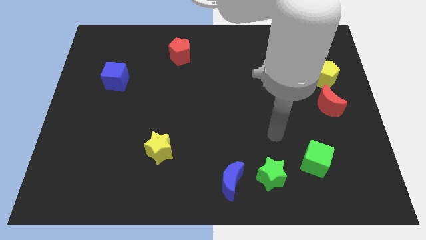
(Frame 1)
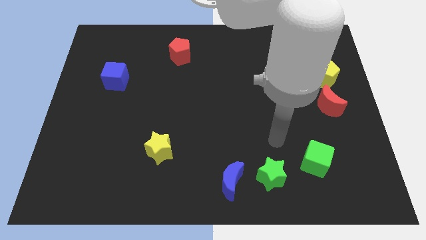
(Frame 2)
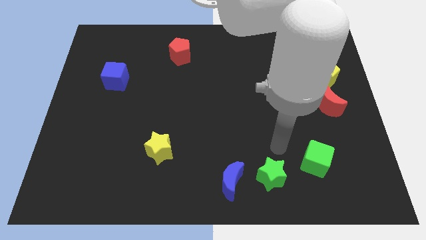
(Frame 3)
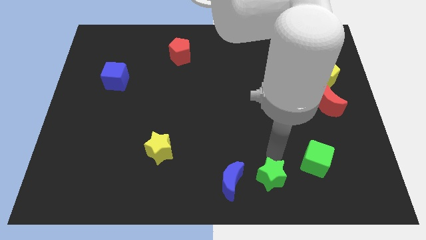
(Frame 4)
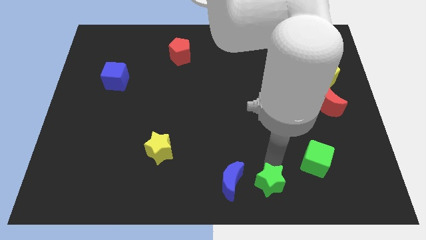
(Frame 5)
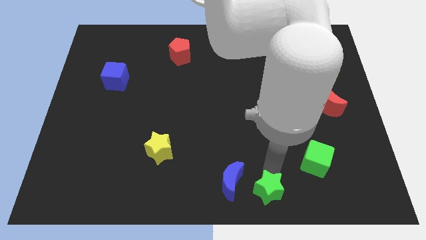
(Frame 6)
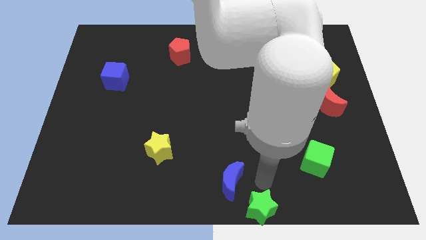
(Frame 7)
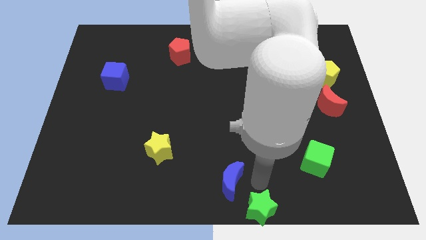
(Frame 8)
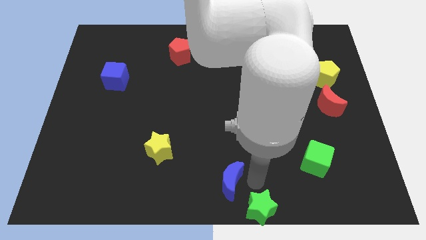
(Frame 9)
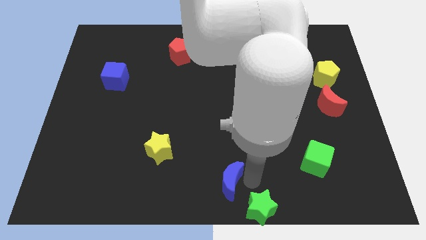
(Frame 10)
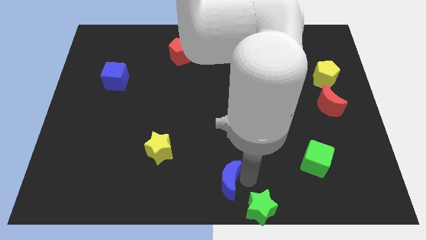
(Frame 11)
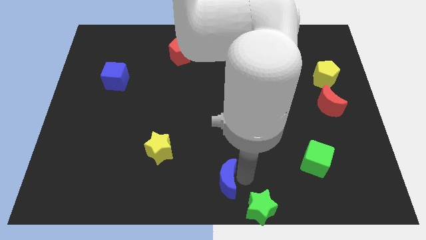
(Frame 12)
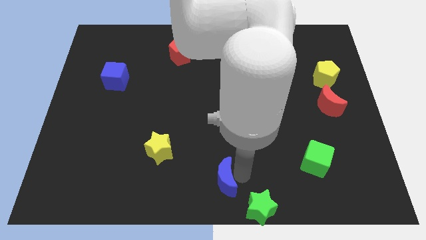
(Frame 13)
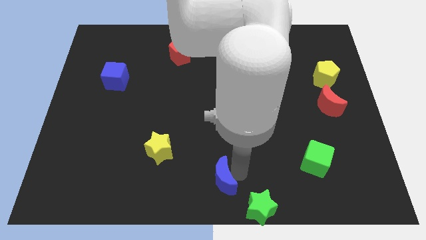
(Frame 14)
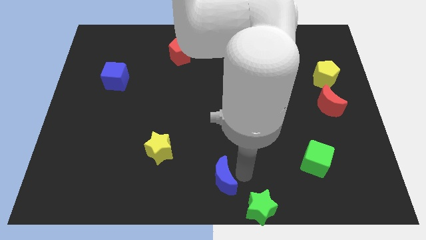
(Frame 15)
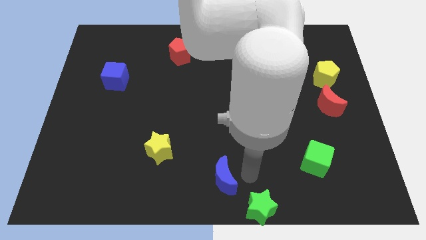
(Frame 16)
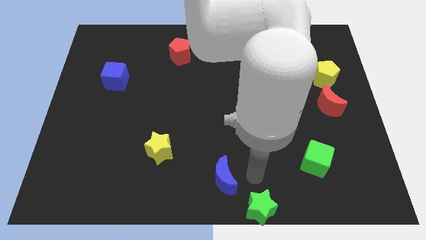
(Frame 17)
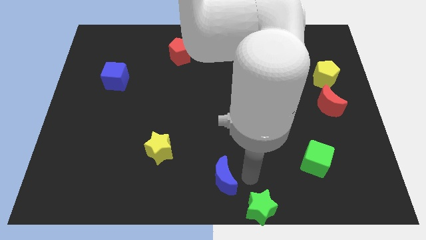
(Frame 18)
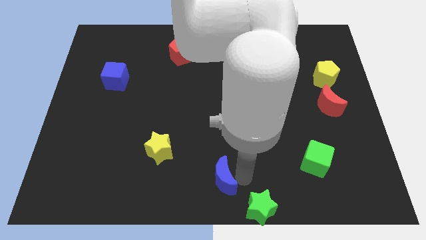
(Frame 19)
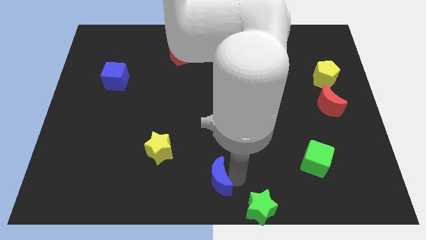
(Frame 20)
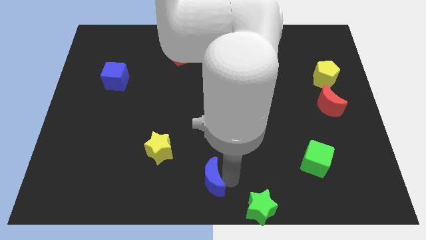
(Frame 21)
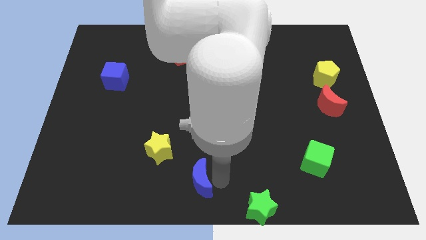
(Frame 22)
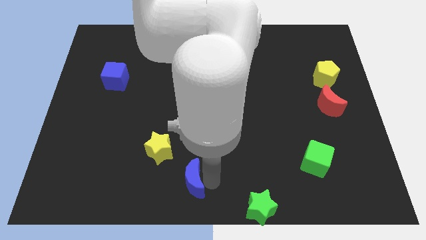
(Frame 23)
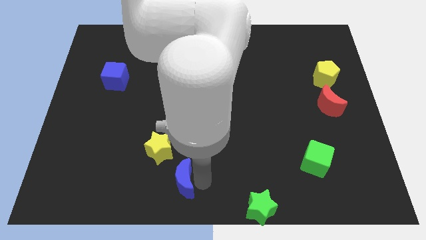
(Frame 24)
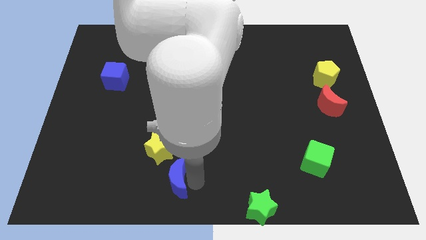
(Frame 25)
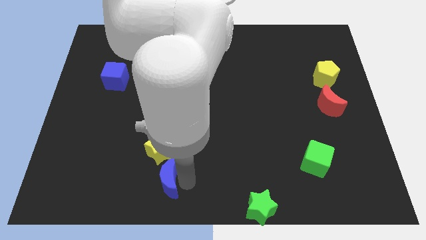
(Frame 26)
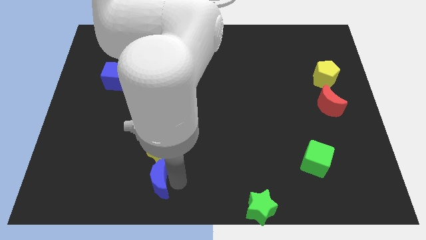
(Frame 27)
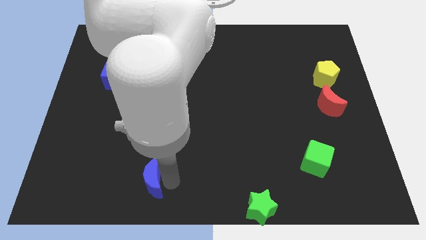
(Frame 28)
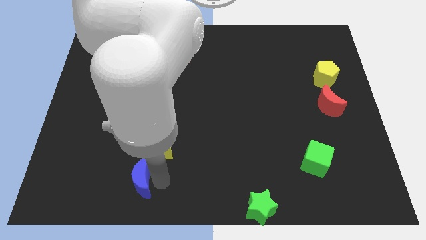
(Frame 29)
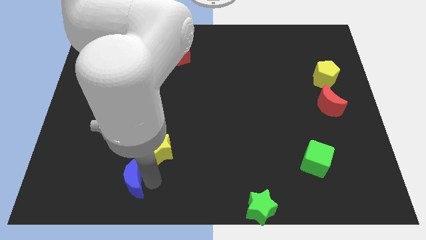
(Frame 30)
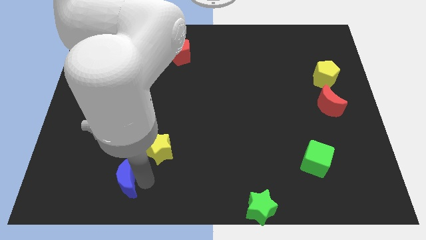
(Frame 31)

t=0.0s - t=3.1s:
move the blue moon left

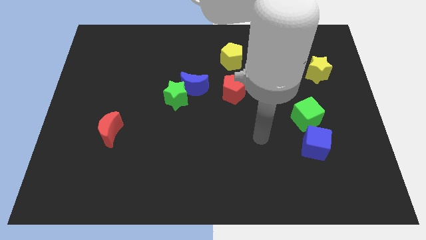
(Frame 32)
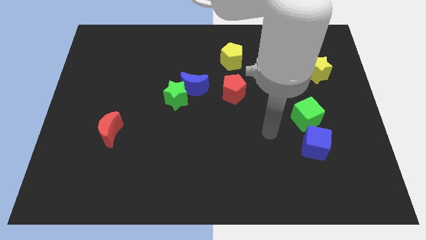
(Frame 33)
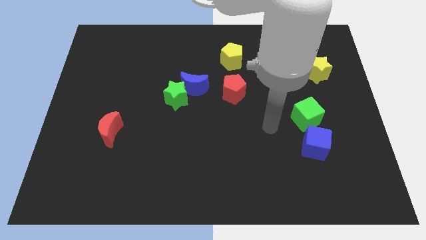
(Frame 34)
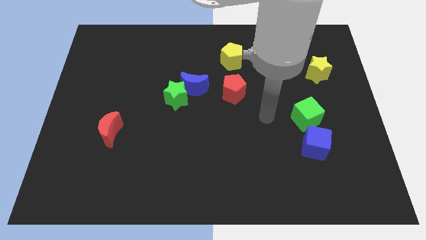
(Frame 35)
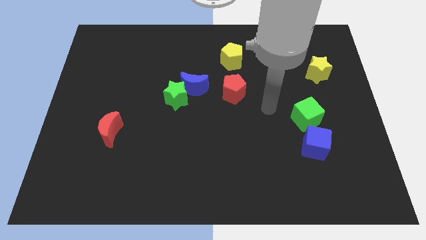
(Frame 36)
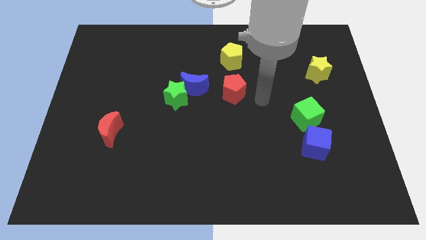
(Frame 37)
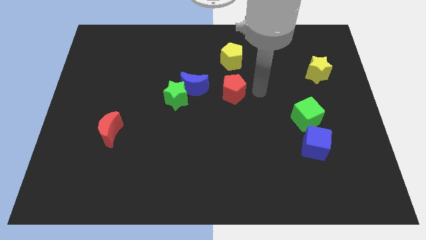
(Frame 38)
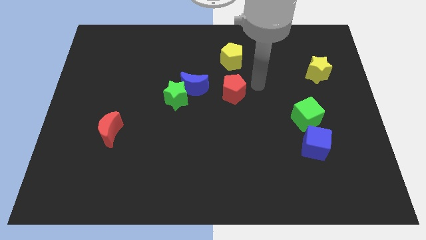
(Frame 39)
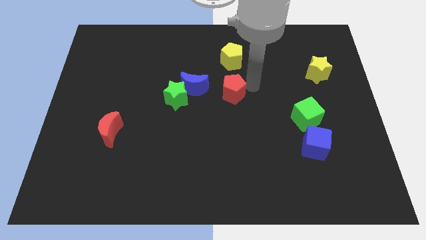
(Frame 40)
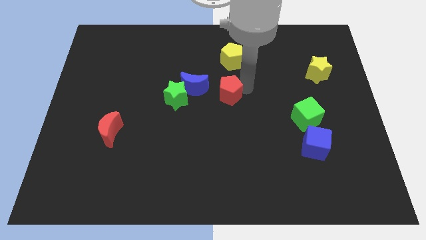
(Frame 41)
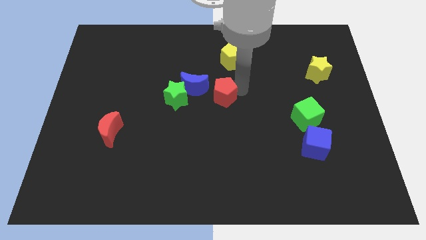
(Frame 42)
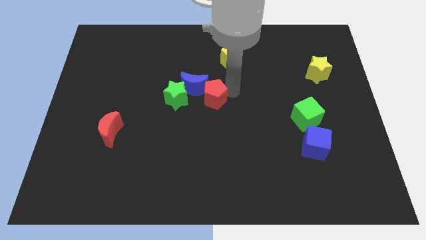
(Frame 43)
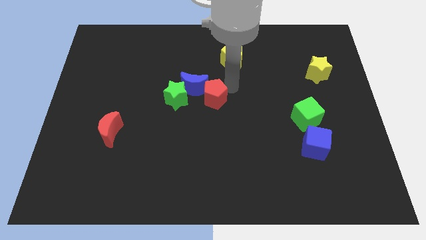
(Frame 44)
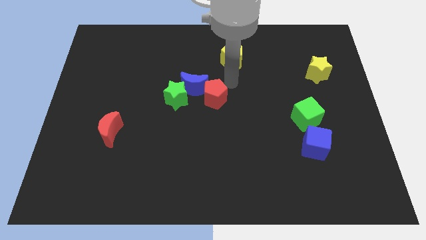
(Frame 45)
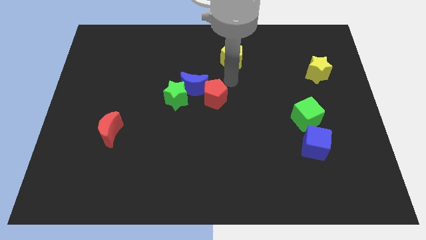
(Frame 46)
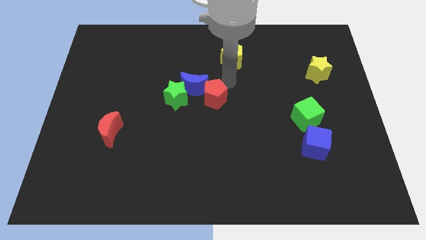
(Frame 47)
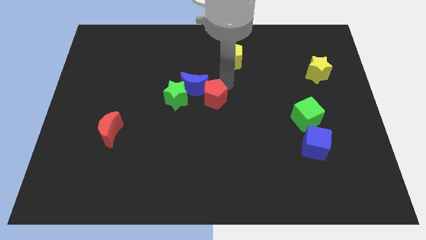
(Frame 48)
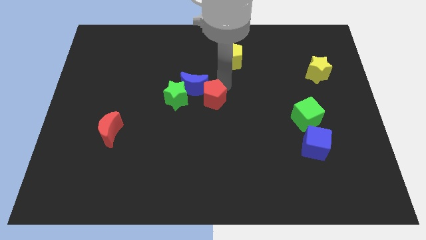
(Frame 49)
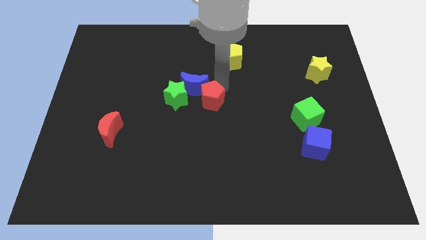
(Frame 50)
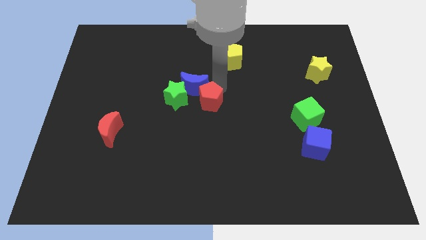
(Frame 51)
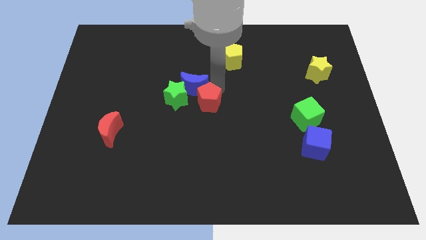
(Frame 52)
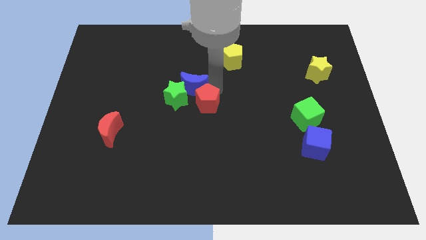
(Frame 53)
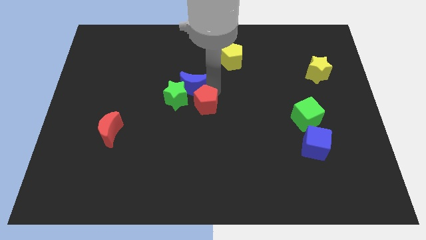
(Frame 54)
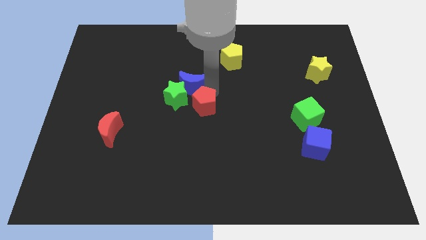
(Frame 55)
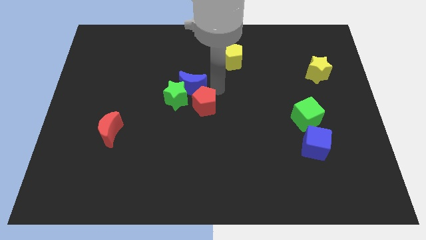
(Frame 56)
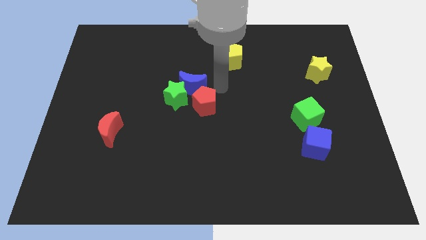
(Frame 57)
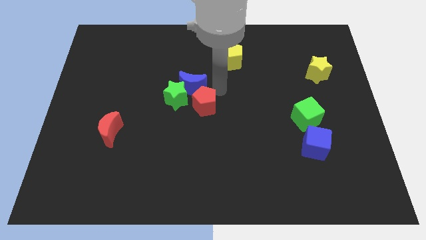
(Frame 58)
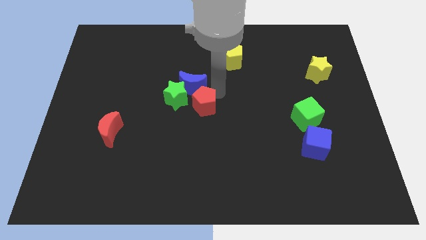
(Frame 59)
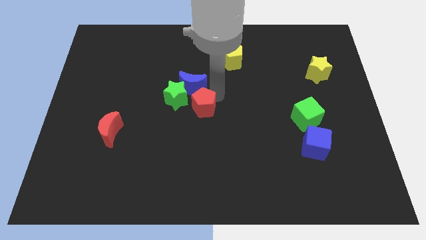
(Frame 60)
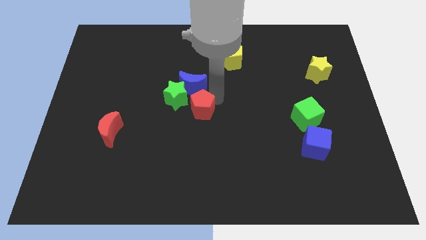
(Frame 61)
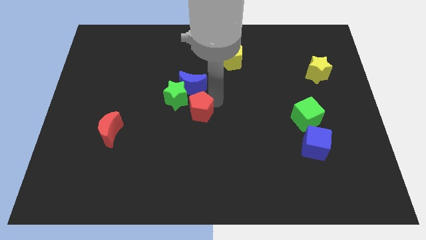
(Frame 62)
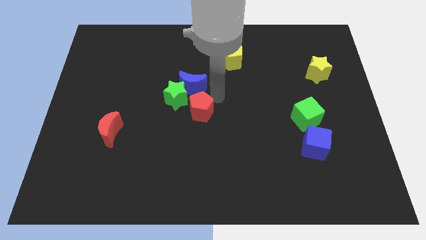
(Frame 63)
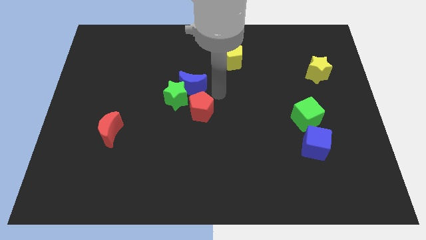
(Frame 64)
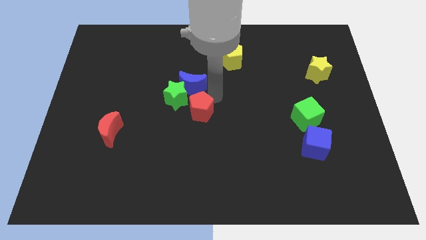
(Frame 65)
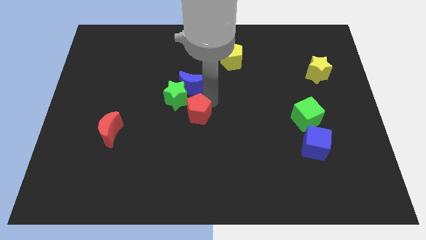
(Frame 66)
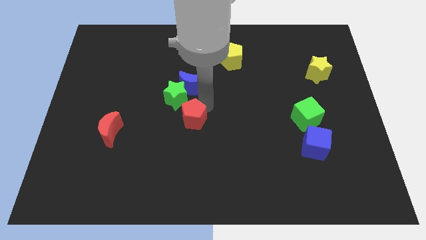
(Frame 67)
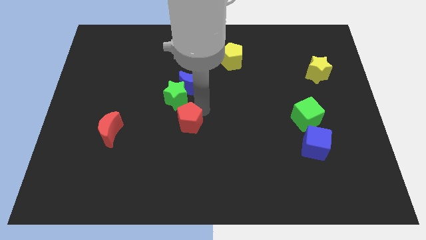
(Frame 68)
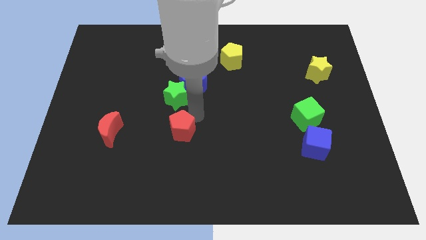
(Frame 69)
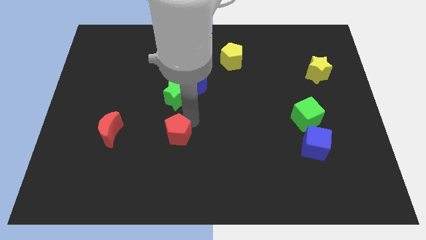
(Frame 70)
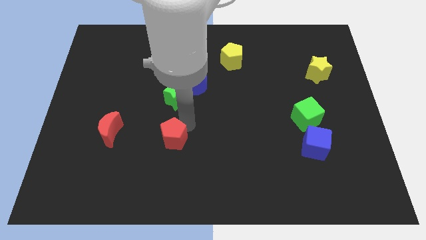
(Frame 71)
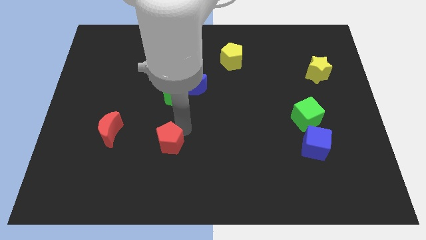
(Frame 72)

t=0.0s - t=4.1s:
push the red pentagon downwards and to the left

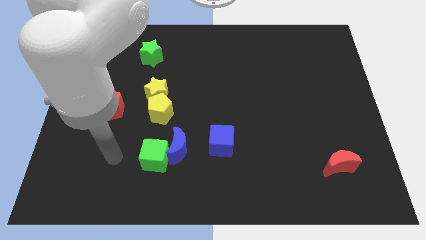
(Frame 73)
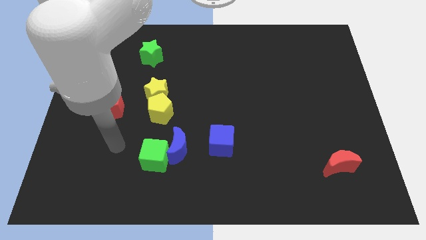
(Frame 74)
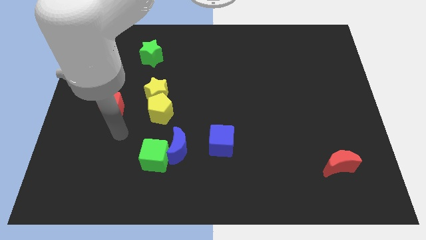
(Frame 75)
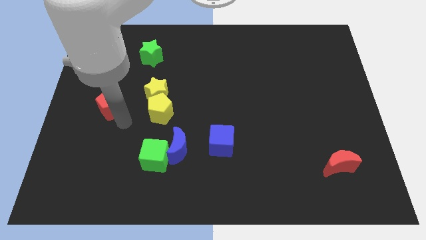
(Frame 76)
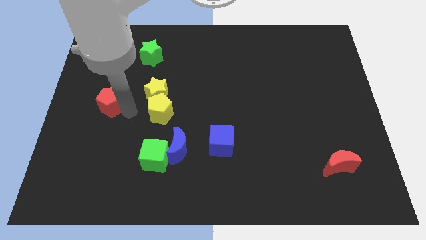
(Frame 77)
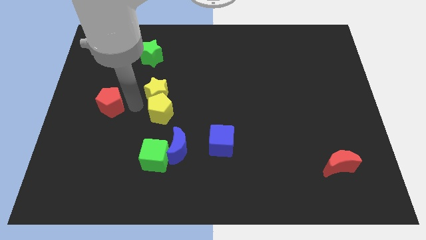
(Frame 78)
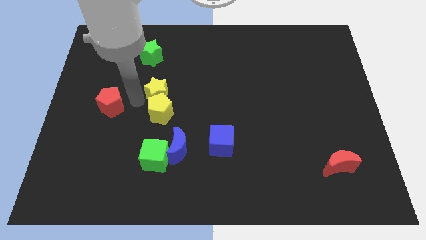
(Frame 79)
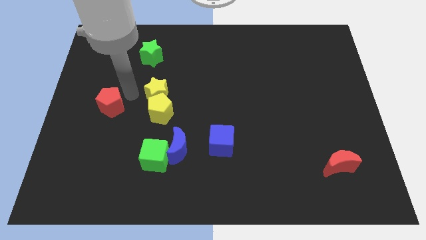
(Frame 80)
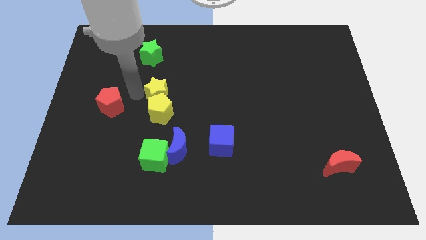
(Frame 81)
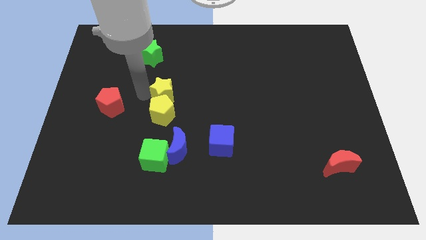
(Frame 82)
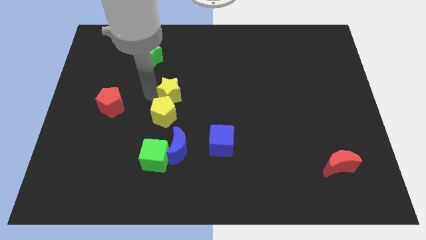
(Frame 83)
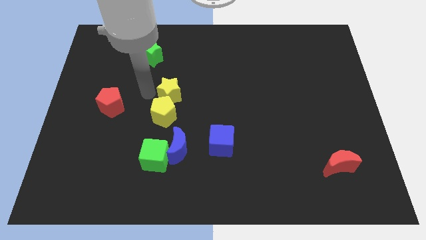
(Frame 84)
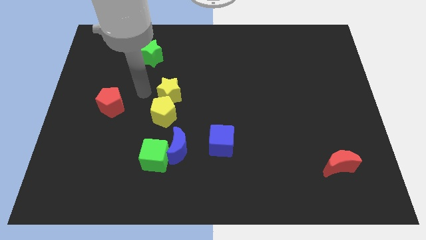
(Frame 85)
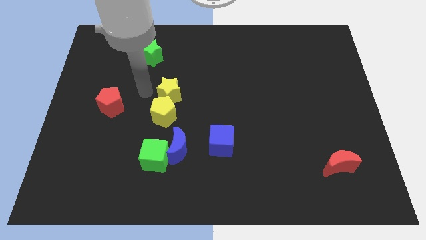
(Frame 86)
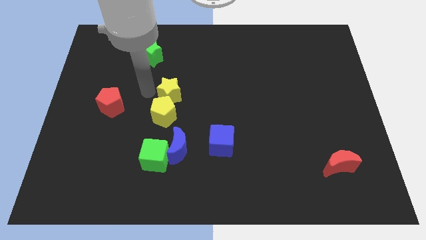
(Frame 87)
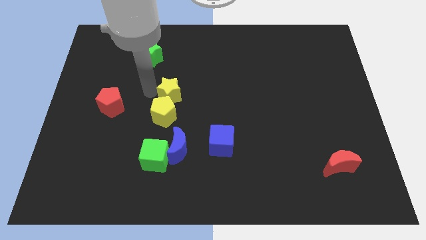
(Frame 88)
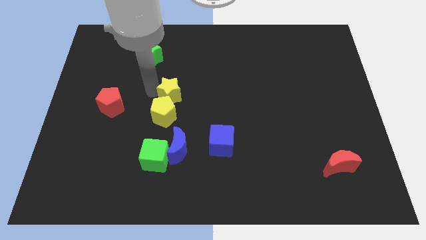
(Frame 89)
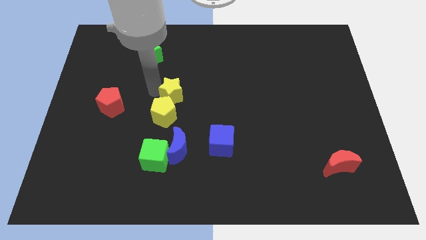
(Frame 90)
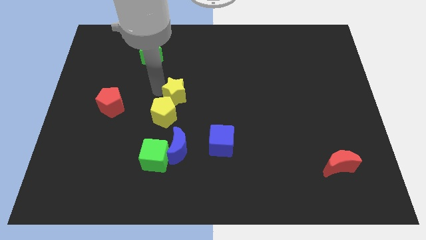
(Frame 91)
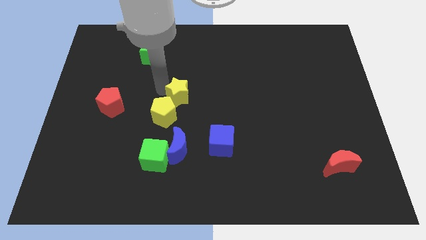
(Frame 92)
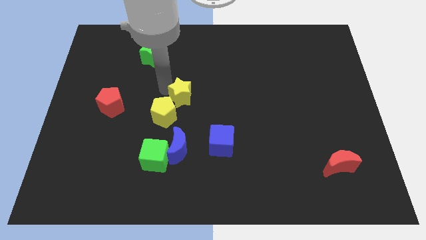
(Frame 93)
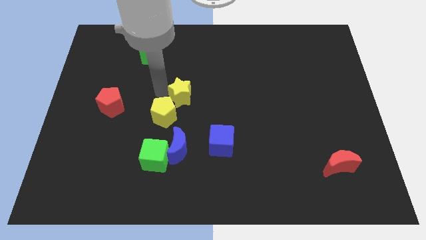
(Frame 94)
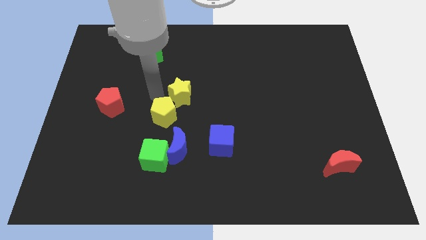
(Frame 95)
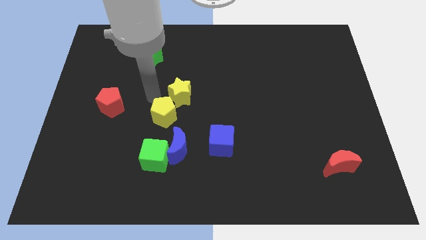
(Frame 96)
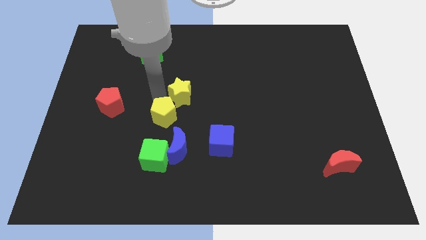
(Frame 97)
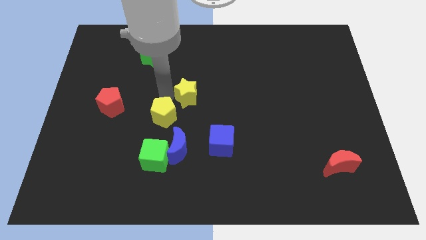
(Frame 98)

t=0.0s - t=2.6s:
move the yellow star right a little
